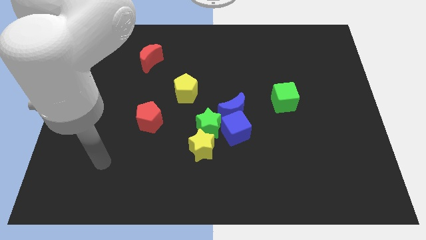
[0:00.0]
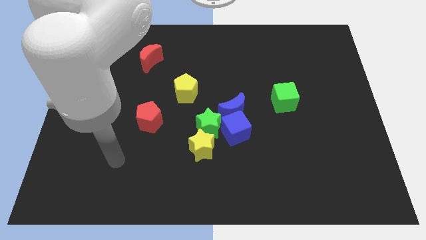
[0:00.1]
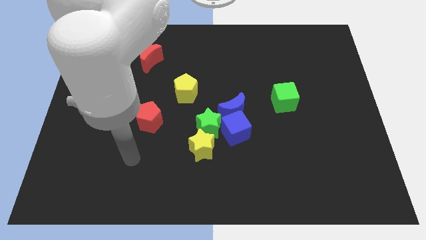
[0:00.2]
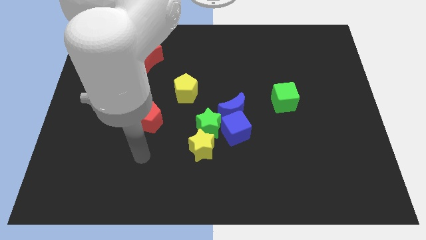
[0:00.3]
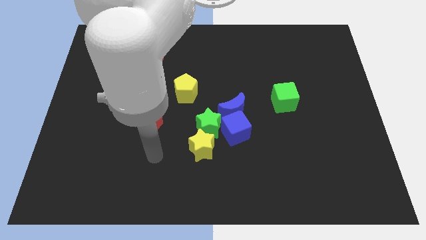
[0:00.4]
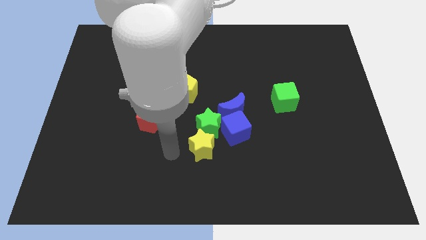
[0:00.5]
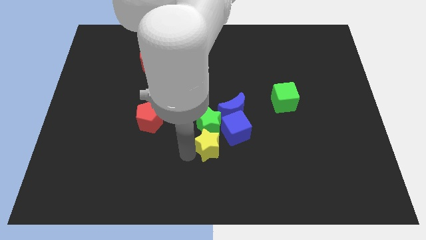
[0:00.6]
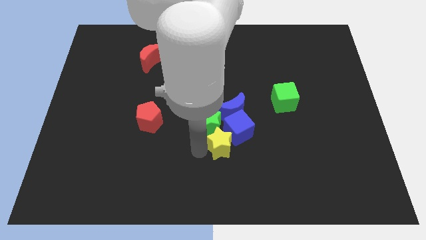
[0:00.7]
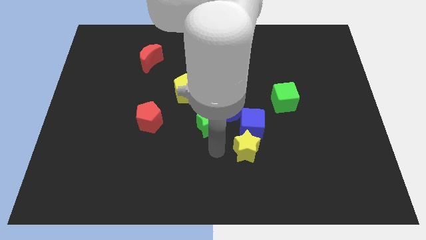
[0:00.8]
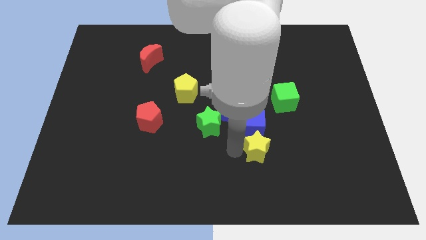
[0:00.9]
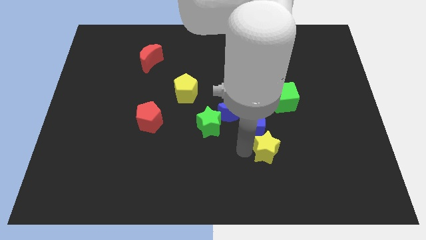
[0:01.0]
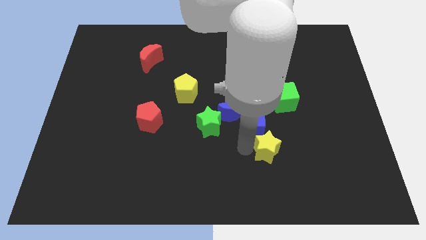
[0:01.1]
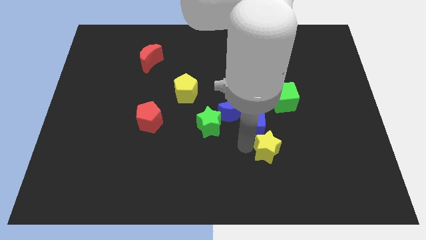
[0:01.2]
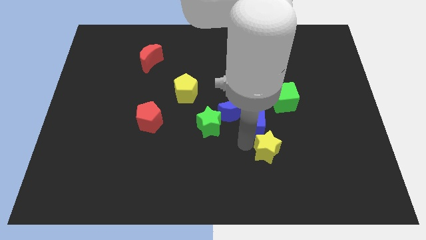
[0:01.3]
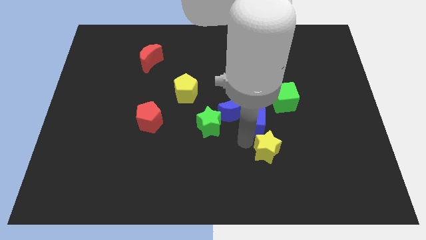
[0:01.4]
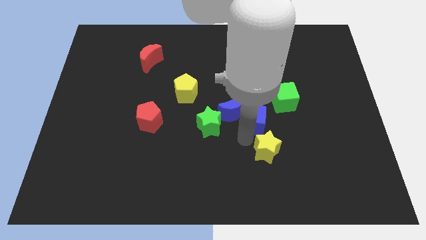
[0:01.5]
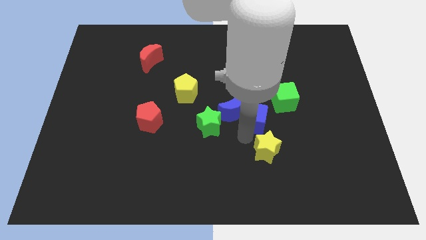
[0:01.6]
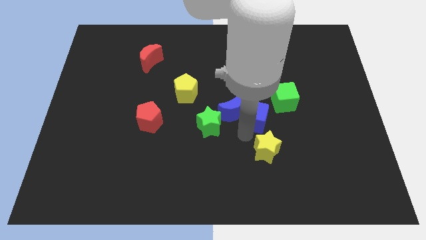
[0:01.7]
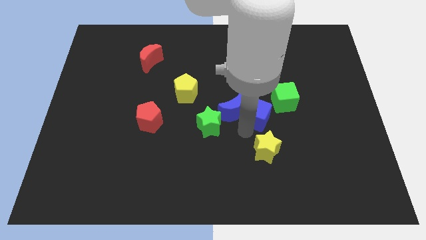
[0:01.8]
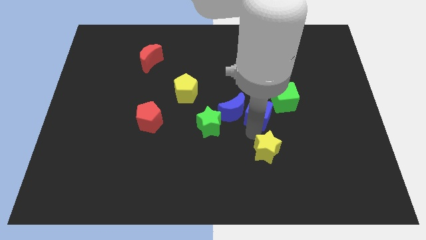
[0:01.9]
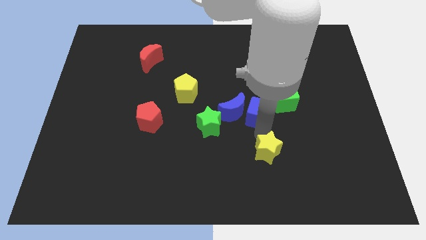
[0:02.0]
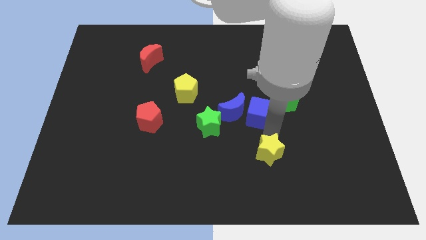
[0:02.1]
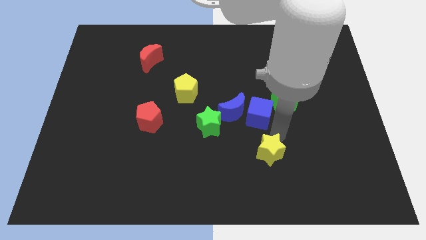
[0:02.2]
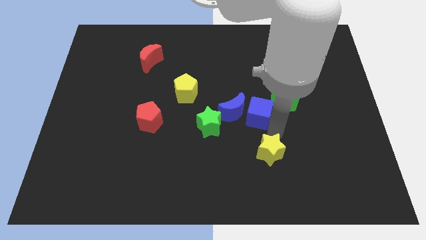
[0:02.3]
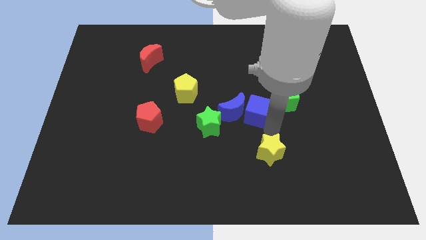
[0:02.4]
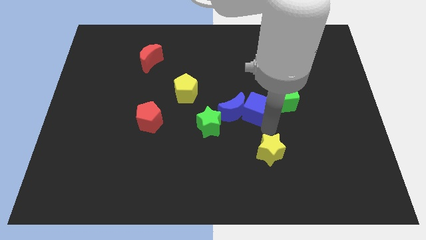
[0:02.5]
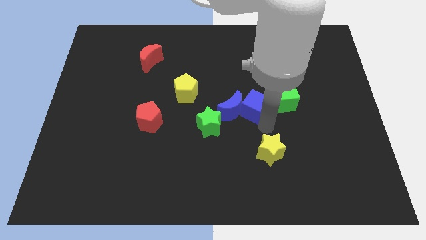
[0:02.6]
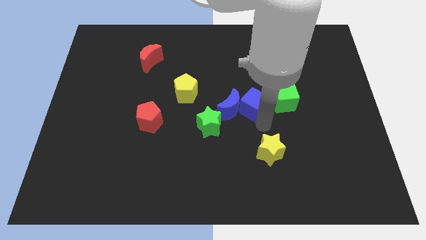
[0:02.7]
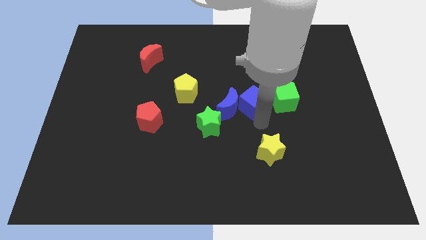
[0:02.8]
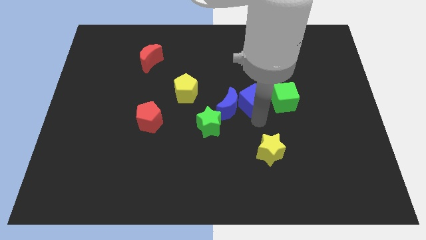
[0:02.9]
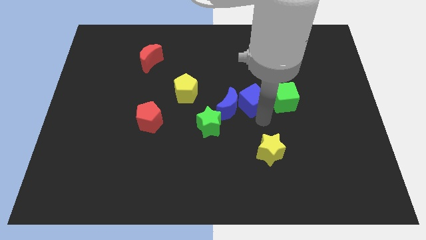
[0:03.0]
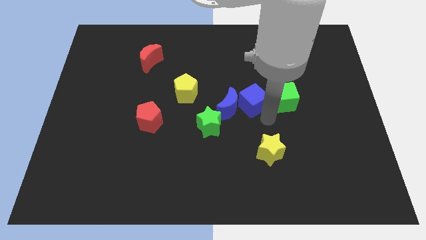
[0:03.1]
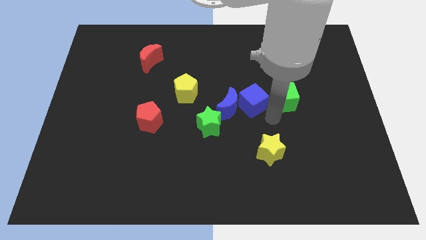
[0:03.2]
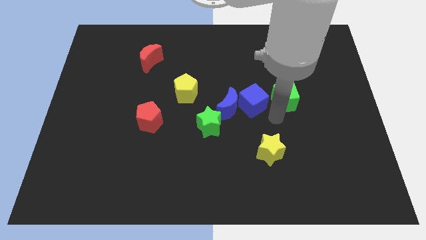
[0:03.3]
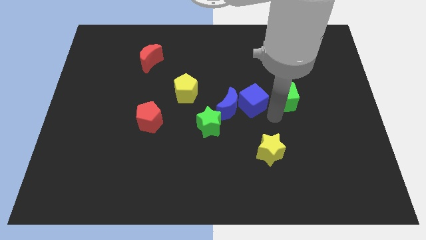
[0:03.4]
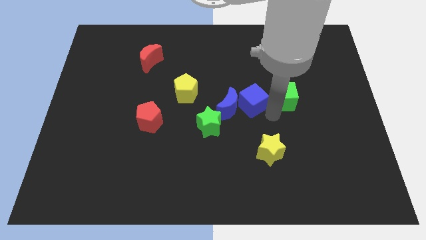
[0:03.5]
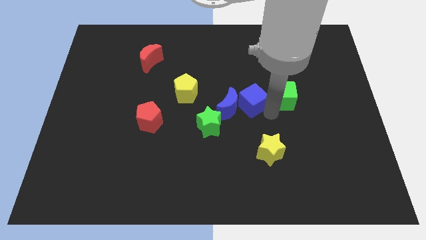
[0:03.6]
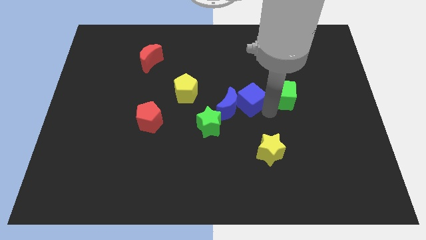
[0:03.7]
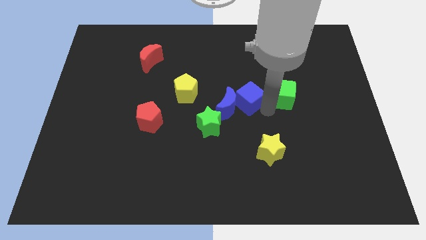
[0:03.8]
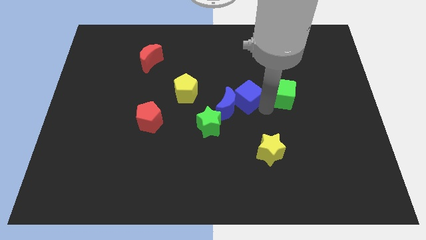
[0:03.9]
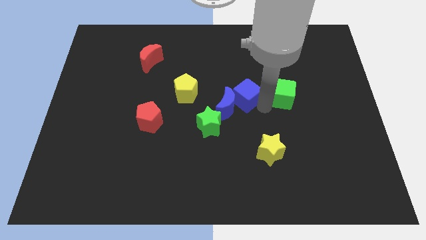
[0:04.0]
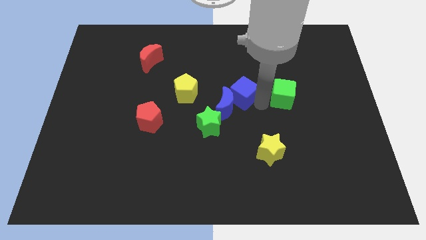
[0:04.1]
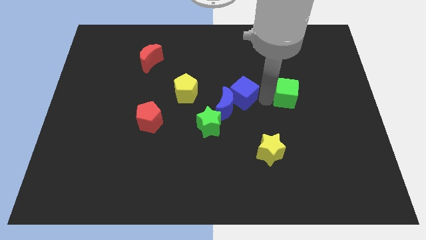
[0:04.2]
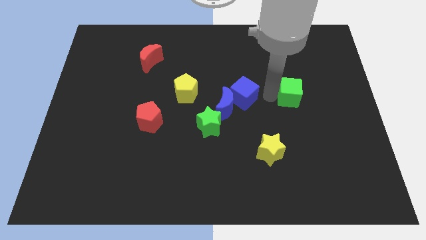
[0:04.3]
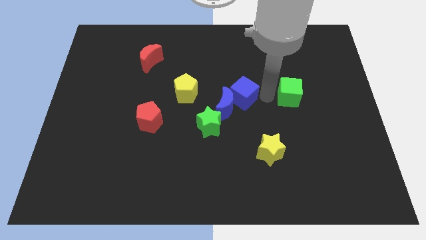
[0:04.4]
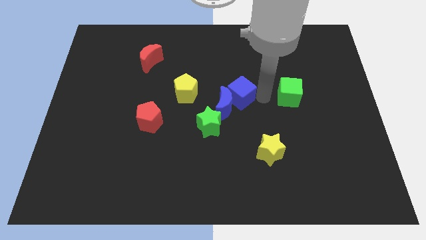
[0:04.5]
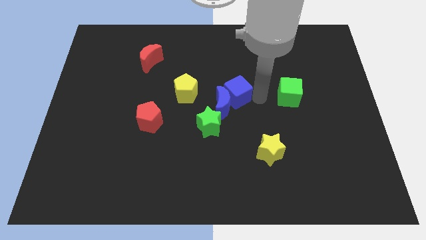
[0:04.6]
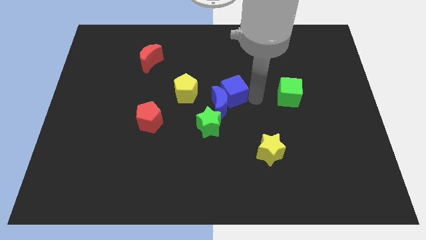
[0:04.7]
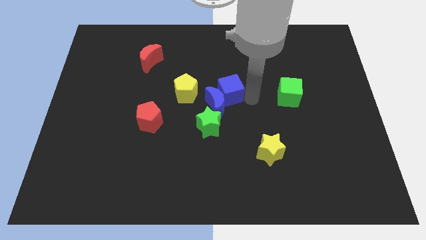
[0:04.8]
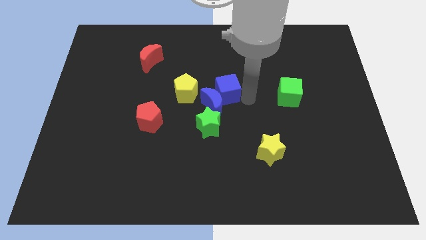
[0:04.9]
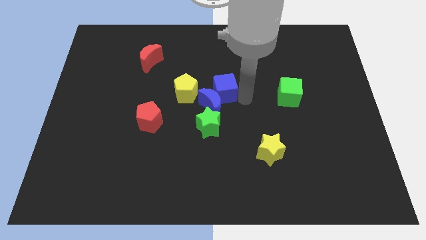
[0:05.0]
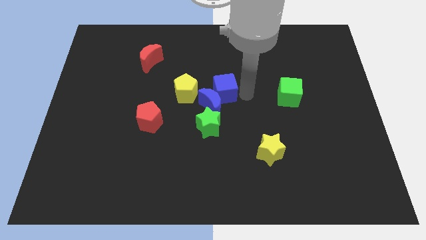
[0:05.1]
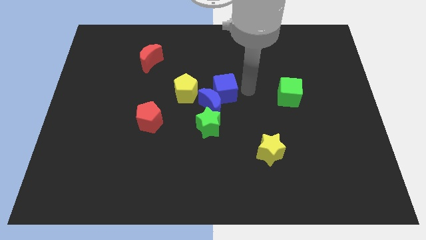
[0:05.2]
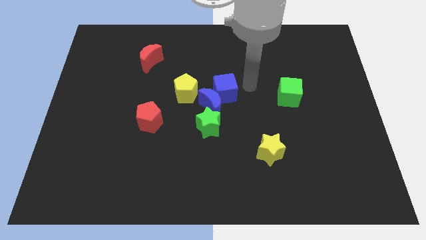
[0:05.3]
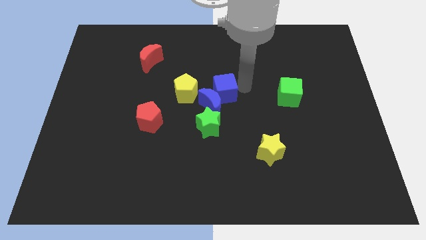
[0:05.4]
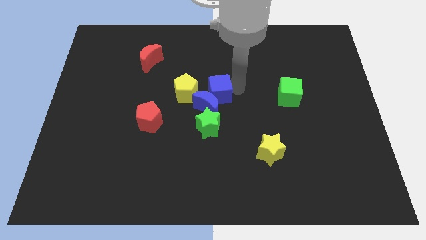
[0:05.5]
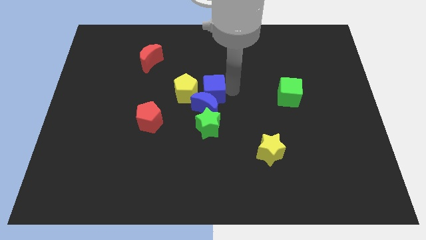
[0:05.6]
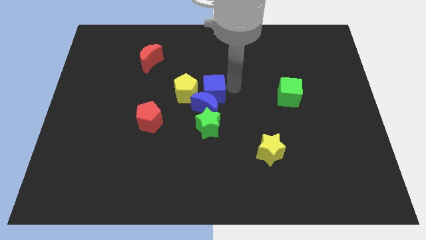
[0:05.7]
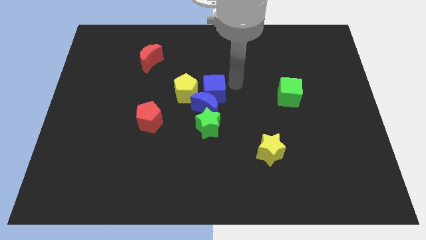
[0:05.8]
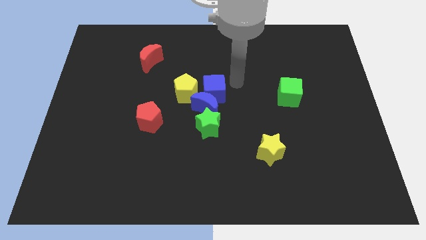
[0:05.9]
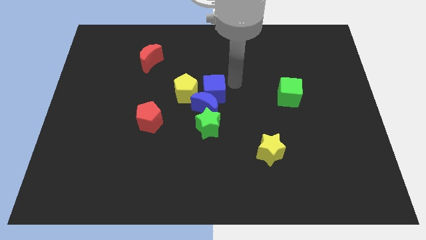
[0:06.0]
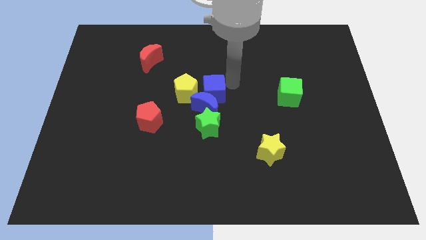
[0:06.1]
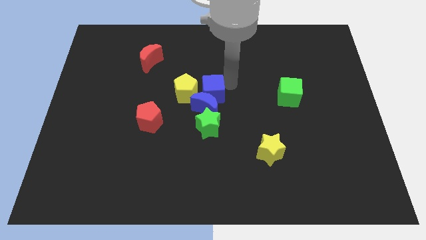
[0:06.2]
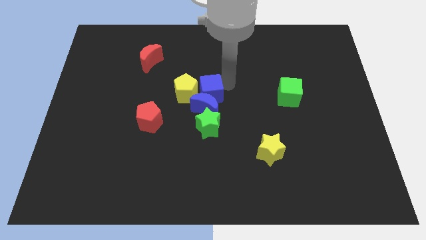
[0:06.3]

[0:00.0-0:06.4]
move the blue cube to the yellow pentagon

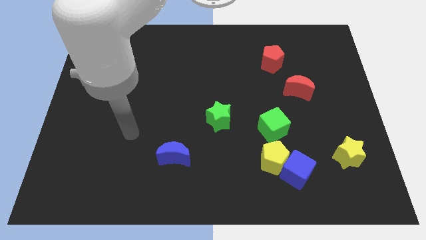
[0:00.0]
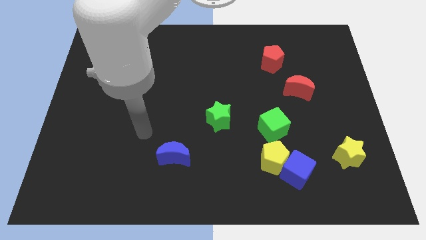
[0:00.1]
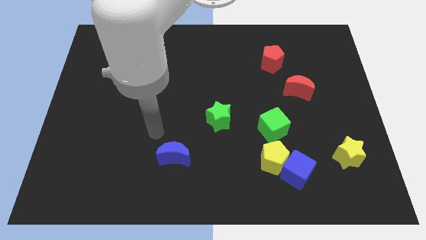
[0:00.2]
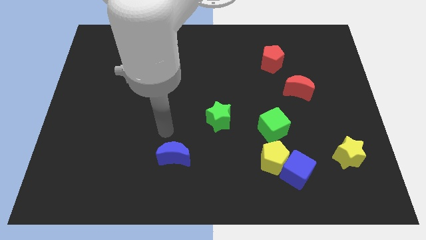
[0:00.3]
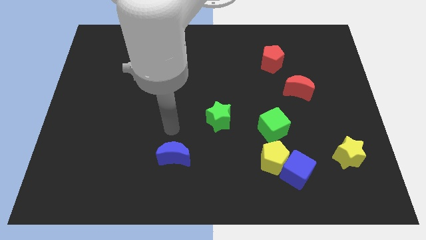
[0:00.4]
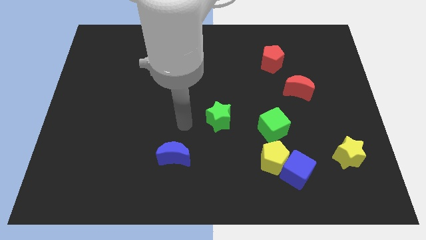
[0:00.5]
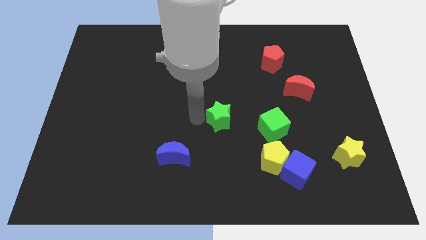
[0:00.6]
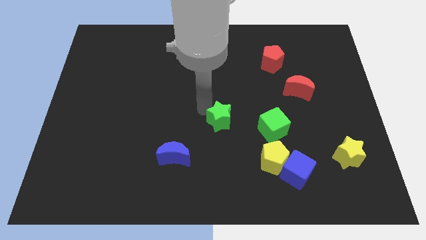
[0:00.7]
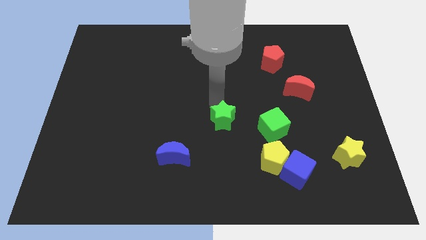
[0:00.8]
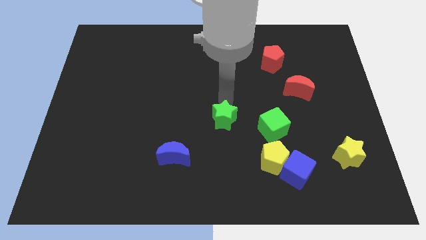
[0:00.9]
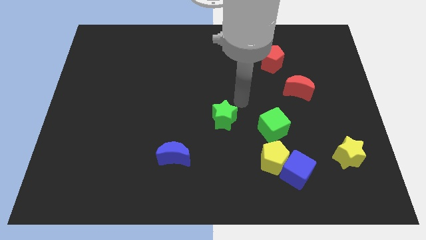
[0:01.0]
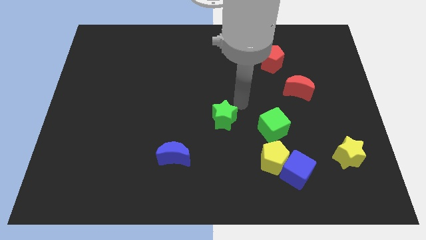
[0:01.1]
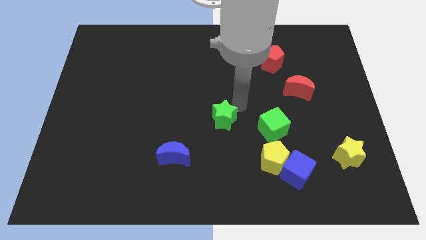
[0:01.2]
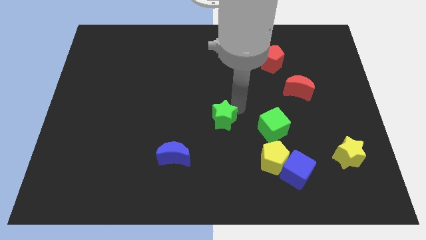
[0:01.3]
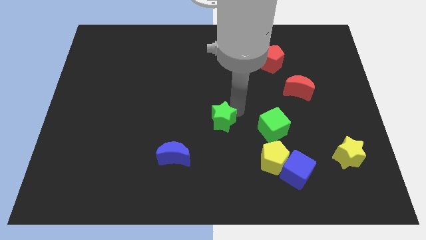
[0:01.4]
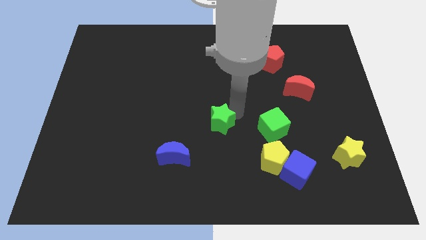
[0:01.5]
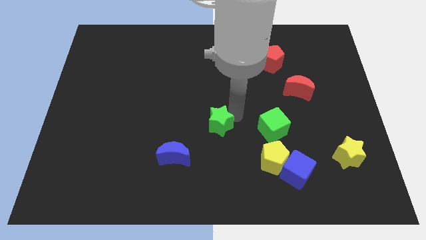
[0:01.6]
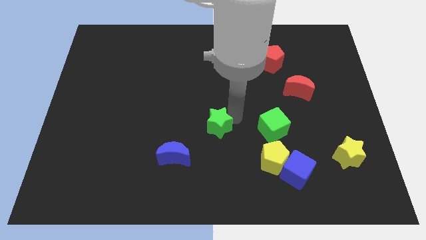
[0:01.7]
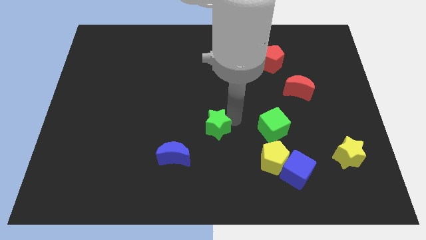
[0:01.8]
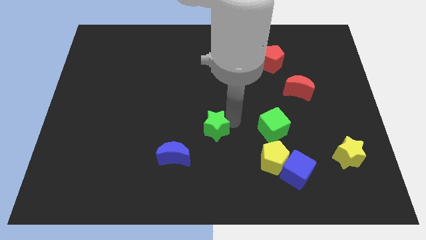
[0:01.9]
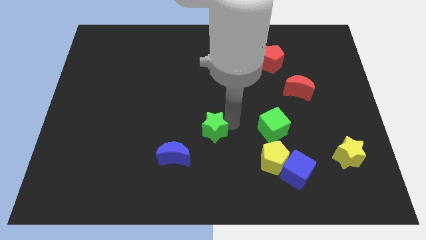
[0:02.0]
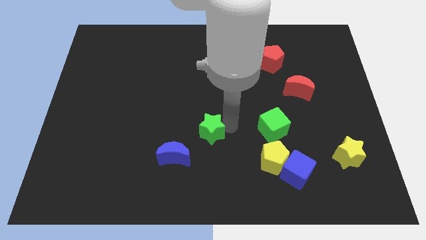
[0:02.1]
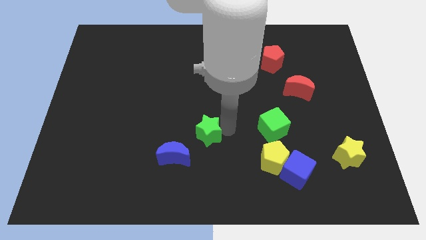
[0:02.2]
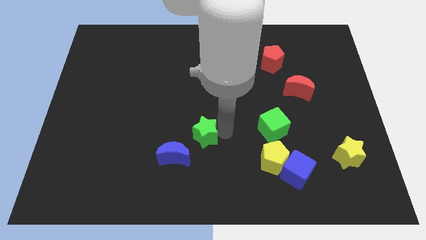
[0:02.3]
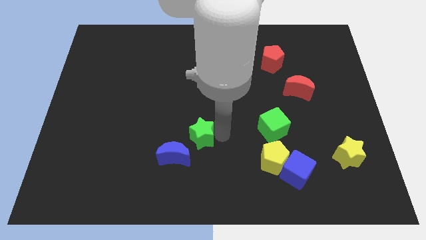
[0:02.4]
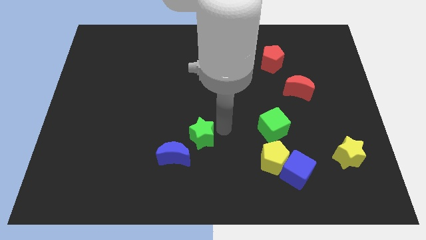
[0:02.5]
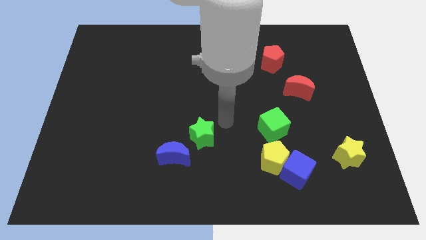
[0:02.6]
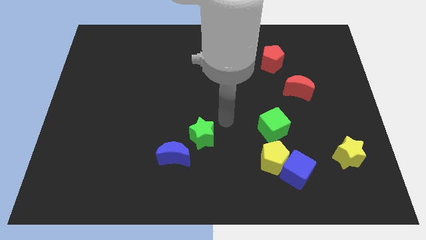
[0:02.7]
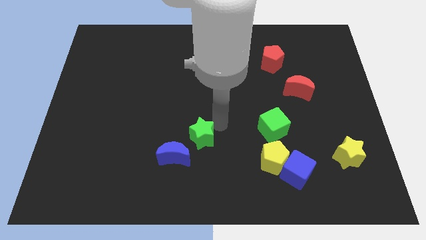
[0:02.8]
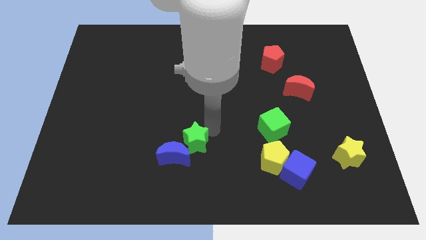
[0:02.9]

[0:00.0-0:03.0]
put the green star close to the blue moon
